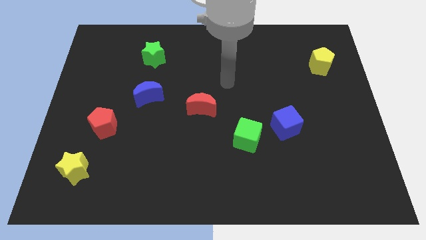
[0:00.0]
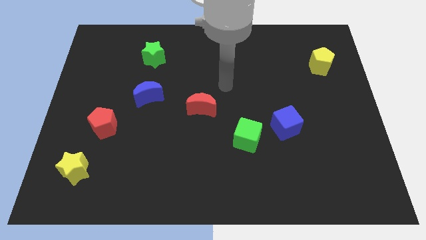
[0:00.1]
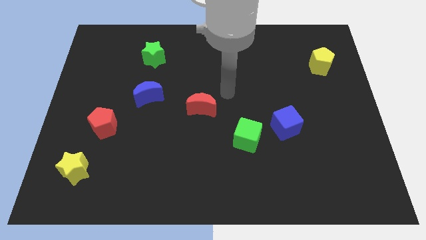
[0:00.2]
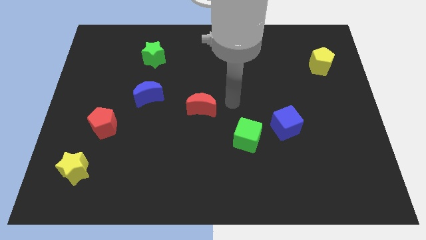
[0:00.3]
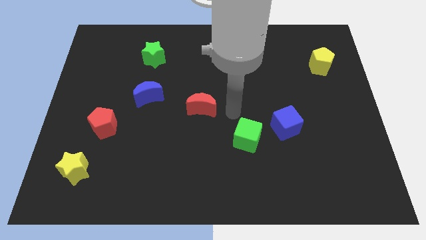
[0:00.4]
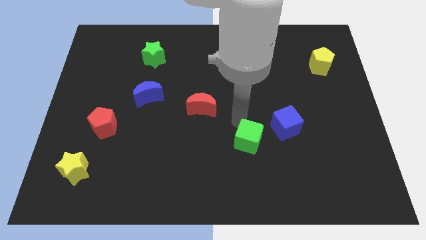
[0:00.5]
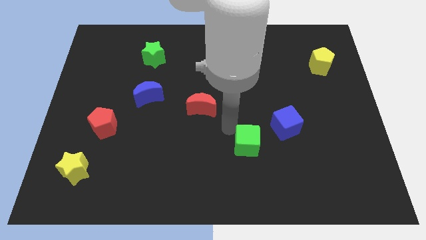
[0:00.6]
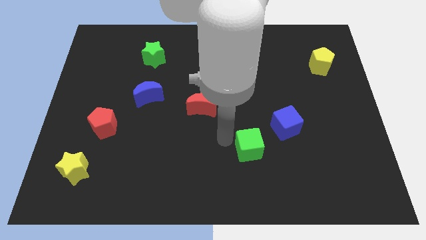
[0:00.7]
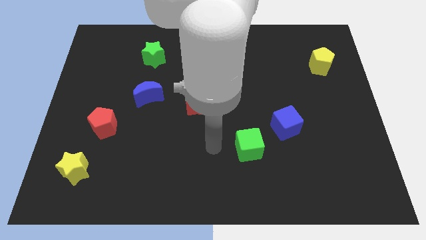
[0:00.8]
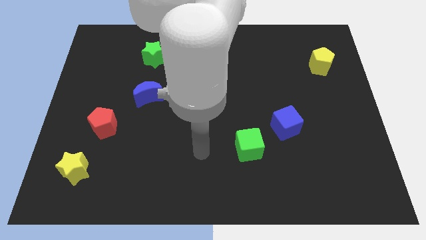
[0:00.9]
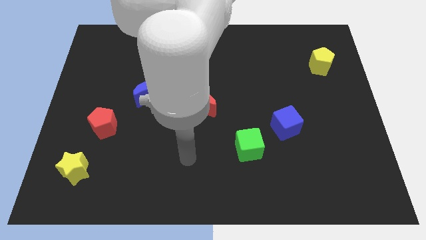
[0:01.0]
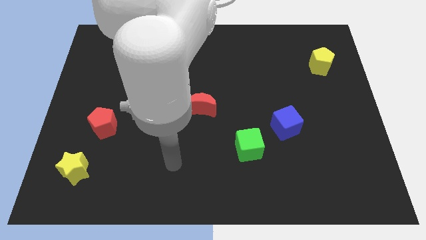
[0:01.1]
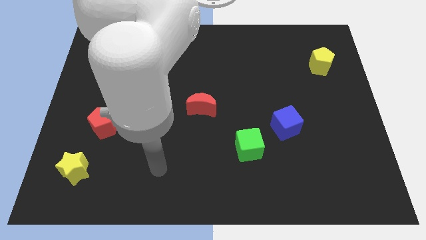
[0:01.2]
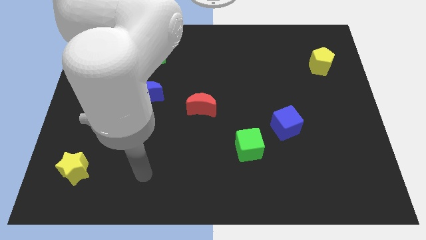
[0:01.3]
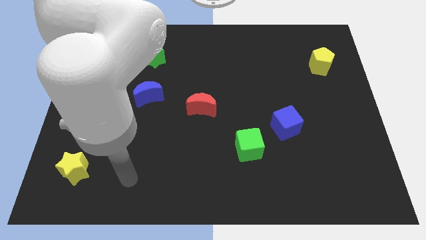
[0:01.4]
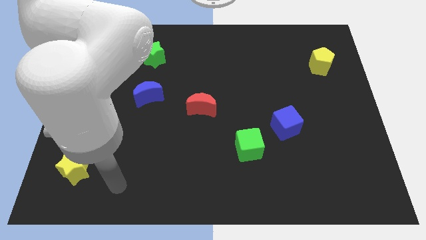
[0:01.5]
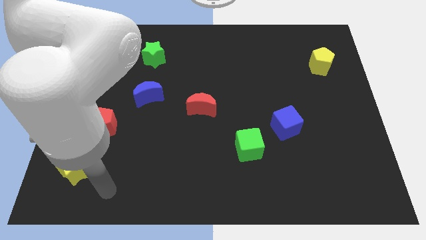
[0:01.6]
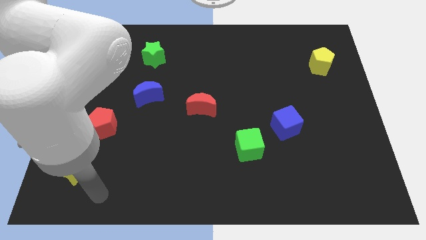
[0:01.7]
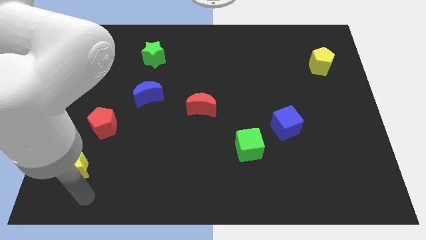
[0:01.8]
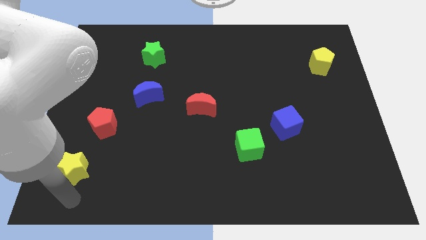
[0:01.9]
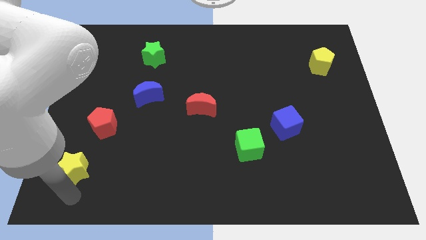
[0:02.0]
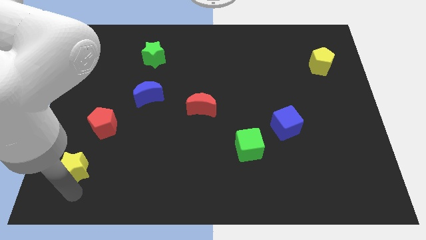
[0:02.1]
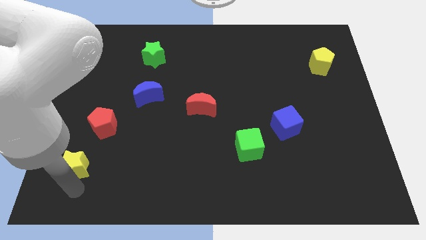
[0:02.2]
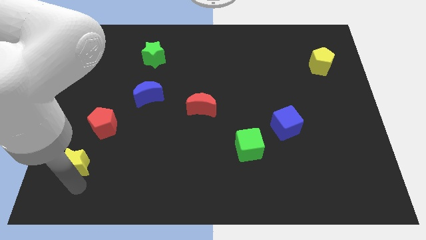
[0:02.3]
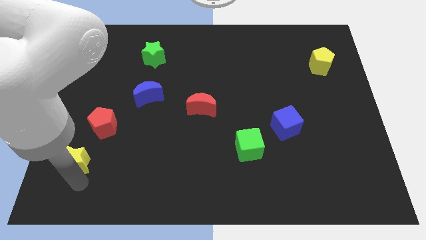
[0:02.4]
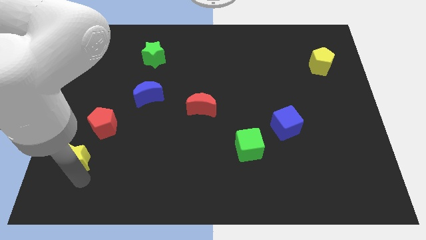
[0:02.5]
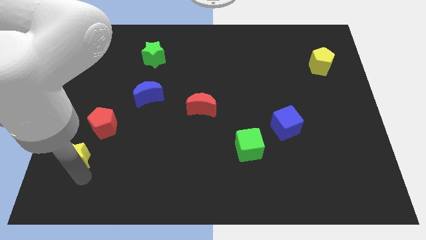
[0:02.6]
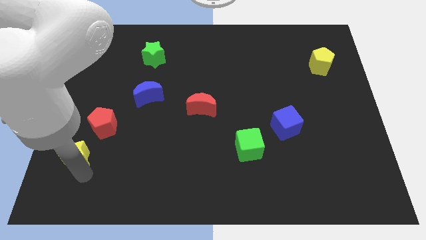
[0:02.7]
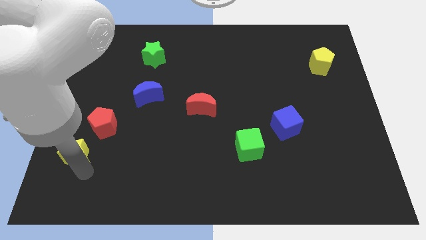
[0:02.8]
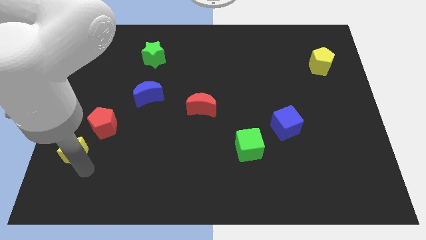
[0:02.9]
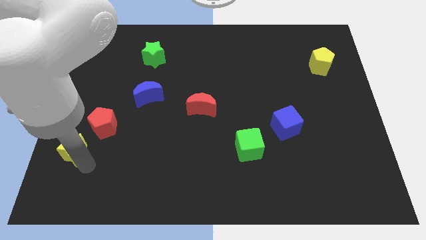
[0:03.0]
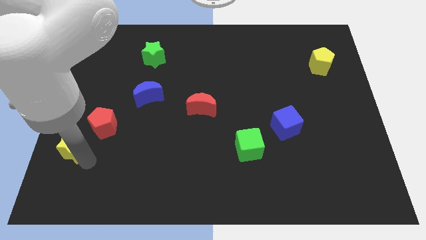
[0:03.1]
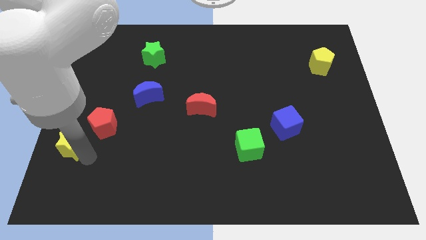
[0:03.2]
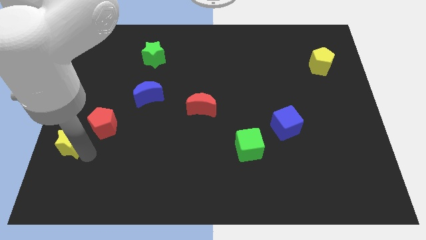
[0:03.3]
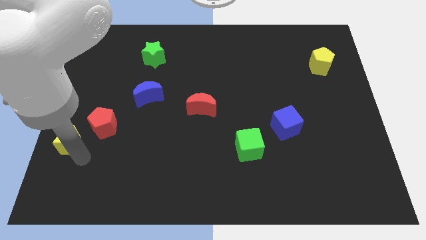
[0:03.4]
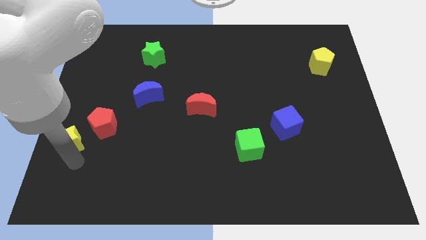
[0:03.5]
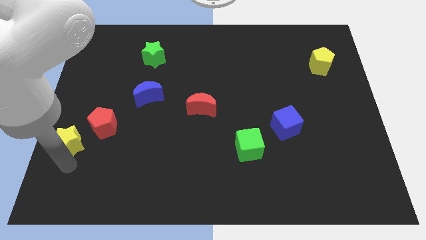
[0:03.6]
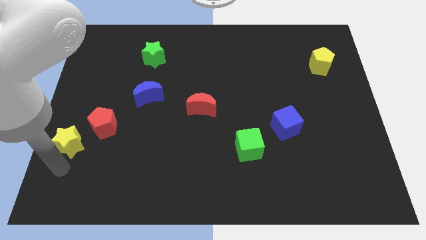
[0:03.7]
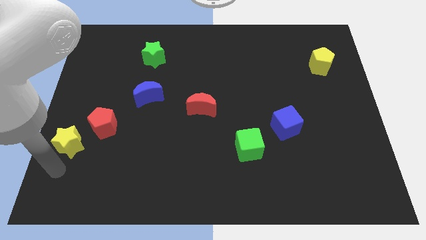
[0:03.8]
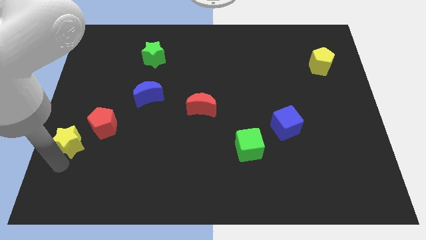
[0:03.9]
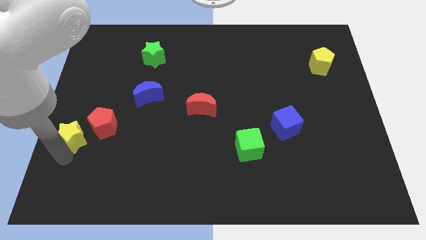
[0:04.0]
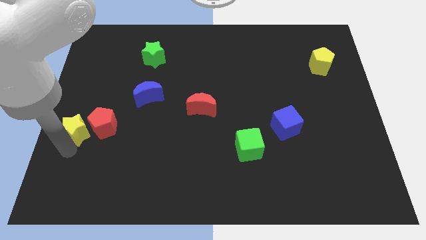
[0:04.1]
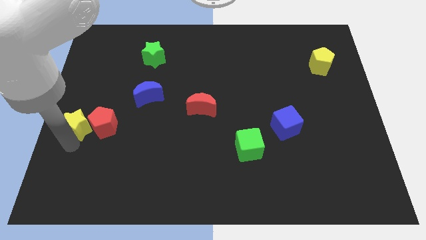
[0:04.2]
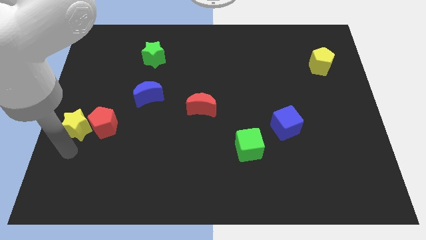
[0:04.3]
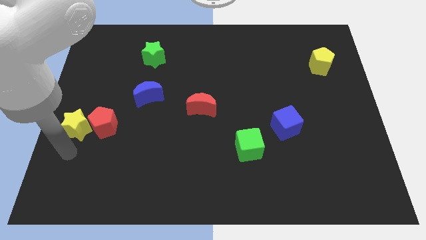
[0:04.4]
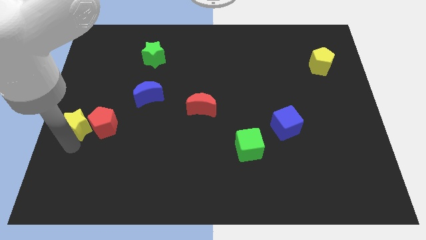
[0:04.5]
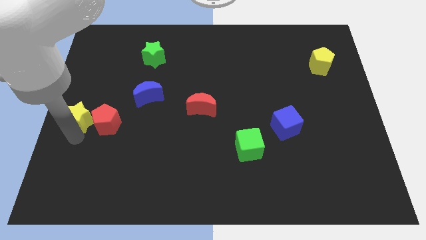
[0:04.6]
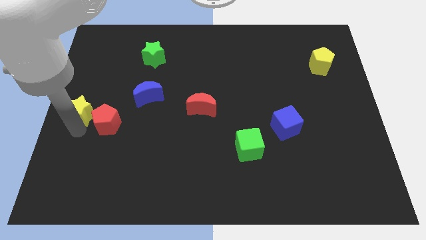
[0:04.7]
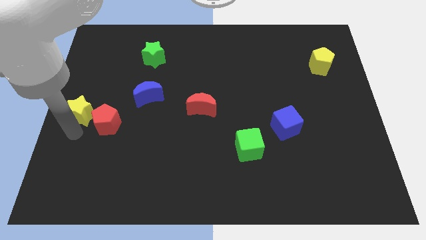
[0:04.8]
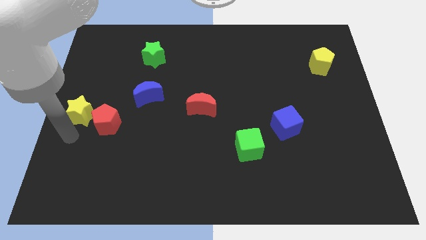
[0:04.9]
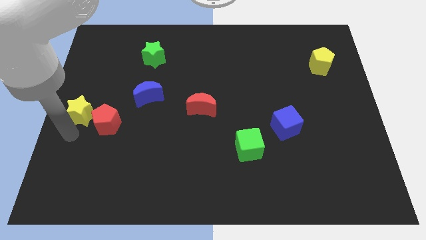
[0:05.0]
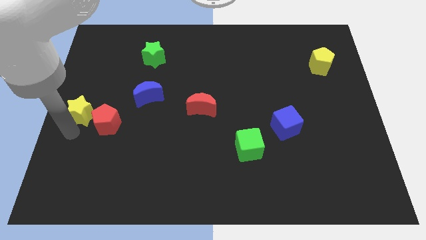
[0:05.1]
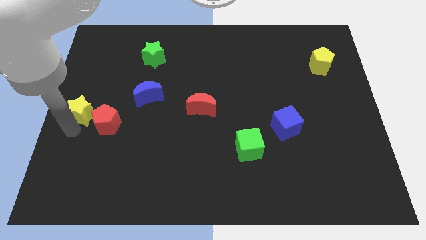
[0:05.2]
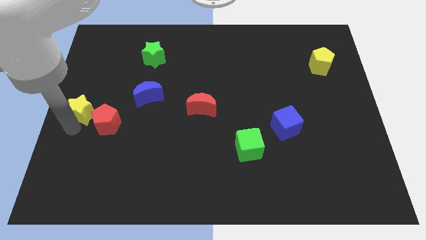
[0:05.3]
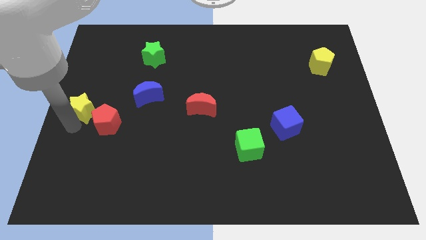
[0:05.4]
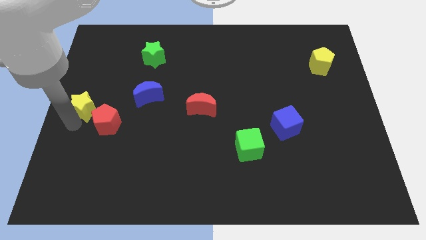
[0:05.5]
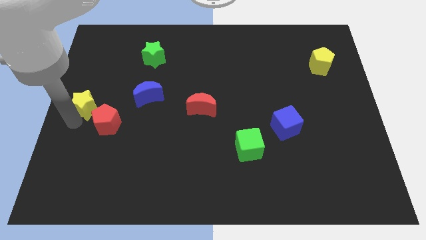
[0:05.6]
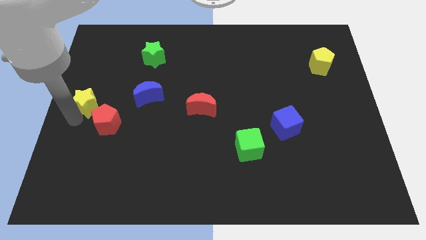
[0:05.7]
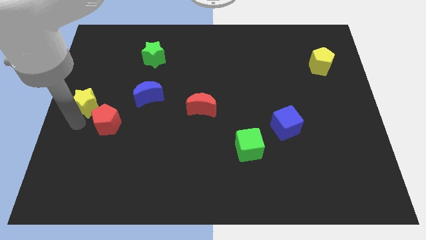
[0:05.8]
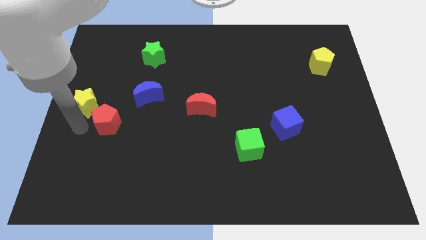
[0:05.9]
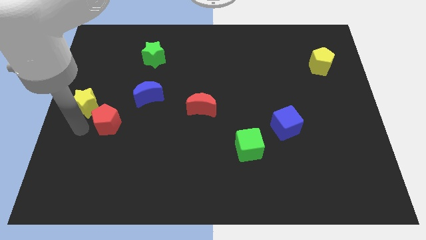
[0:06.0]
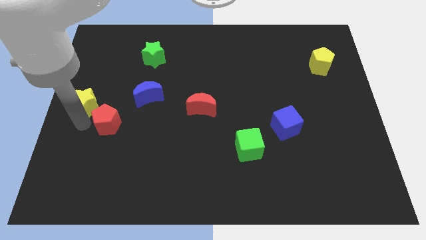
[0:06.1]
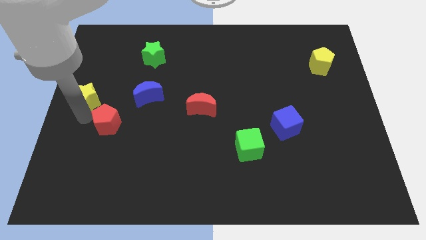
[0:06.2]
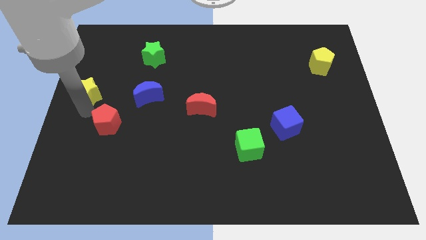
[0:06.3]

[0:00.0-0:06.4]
push the yellow star upwards

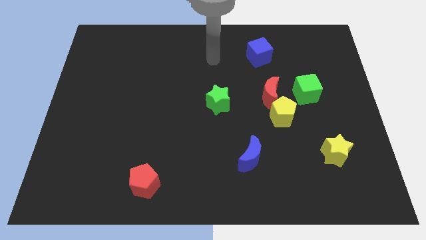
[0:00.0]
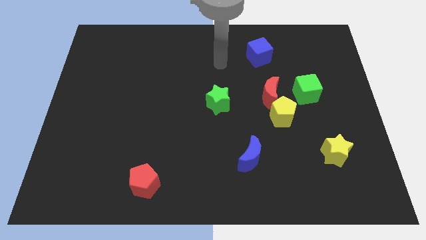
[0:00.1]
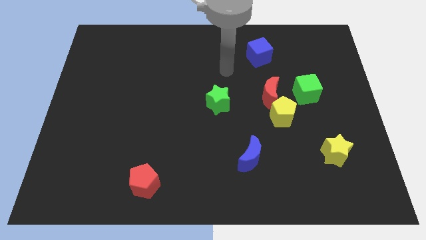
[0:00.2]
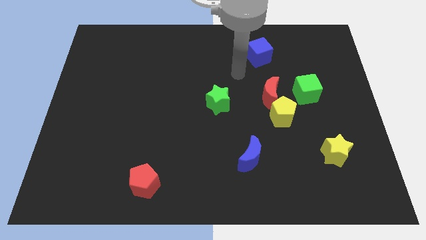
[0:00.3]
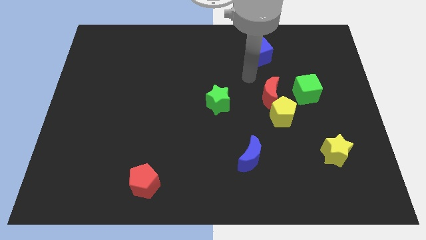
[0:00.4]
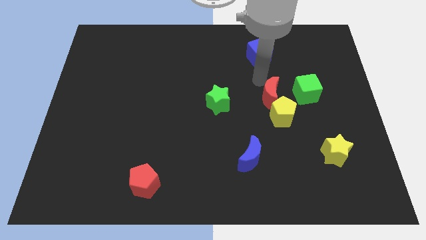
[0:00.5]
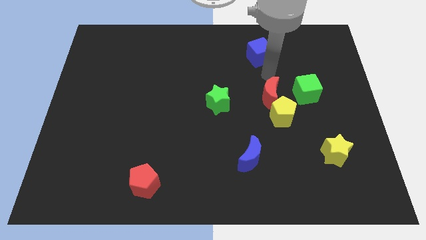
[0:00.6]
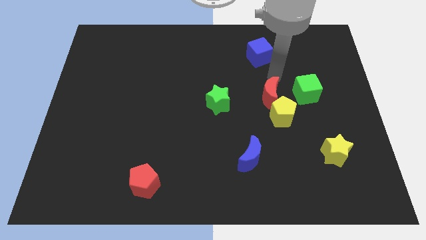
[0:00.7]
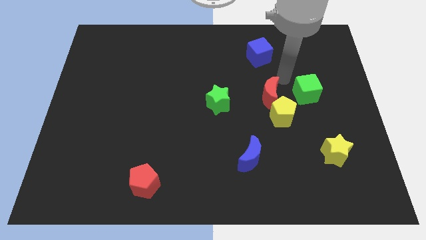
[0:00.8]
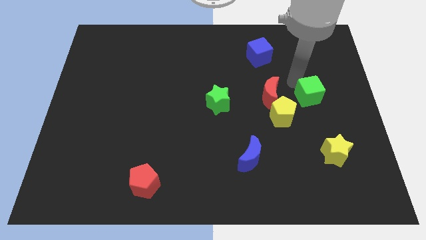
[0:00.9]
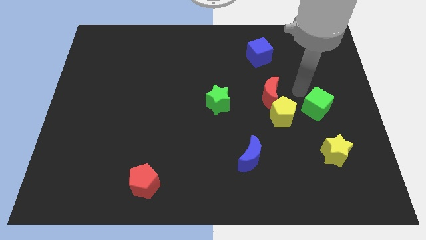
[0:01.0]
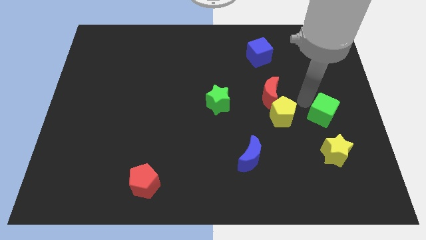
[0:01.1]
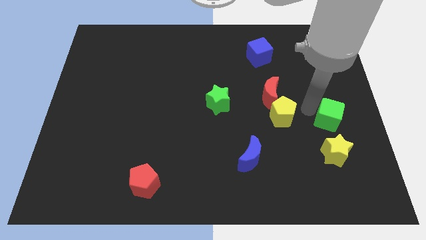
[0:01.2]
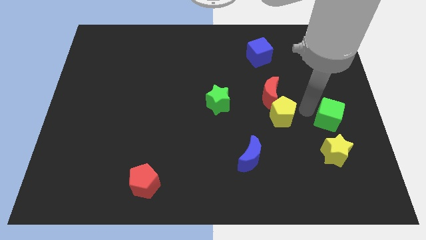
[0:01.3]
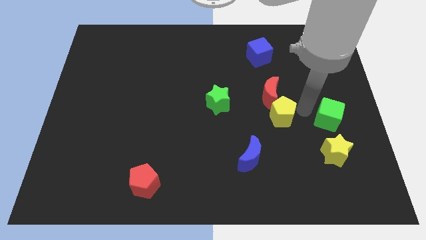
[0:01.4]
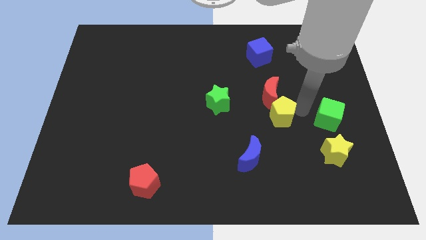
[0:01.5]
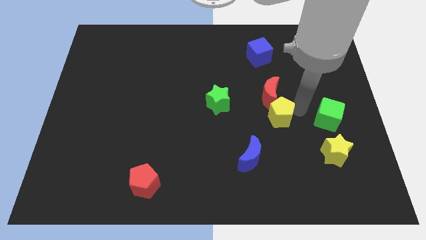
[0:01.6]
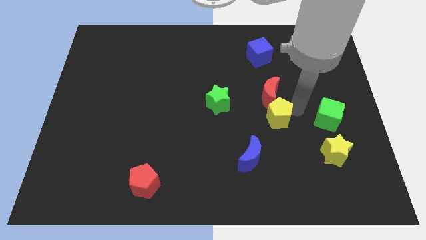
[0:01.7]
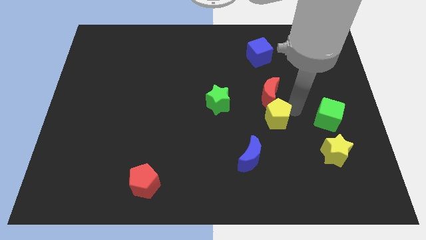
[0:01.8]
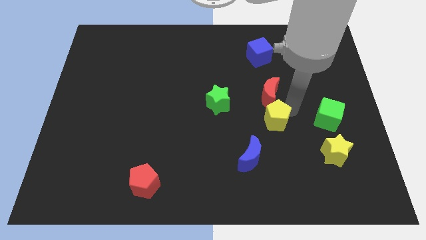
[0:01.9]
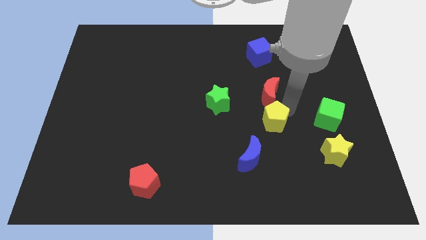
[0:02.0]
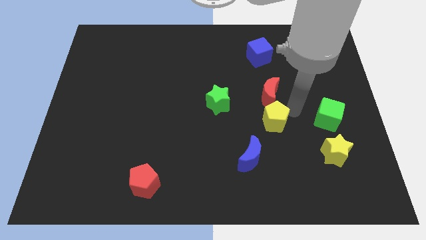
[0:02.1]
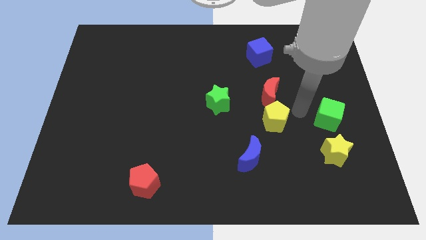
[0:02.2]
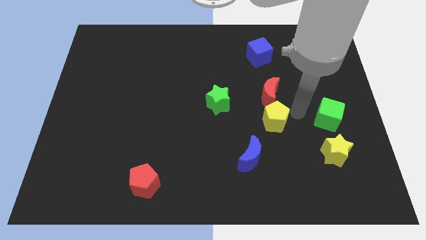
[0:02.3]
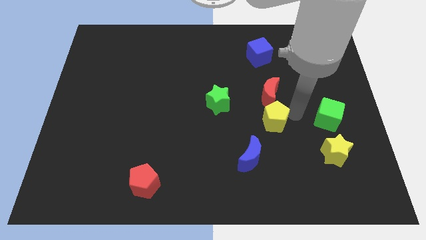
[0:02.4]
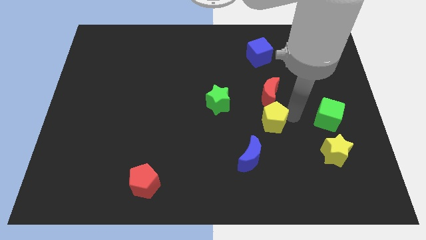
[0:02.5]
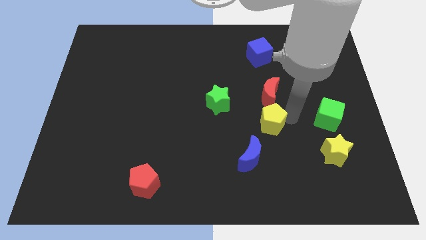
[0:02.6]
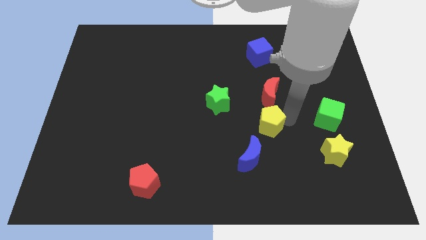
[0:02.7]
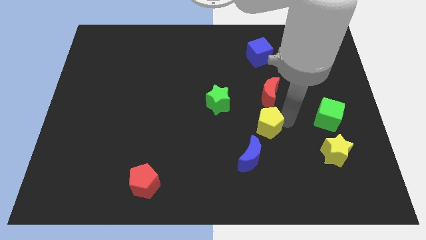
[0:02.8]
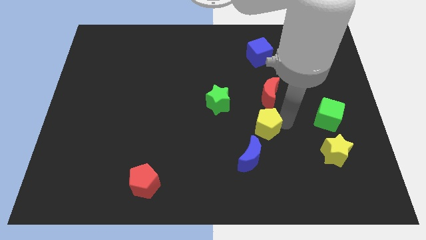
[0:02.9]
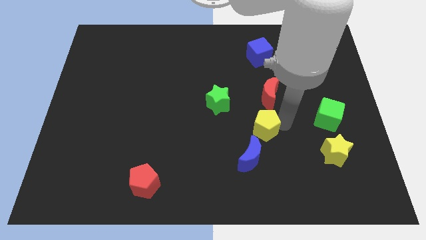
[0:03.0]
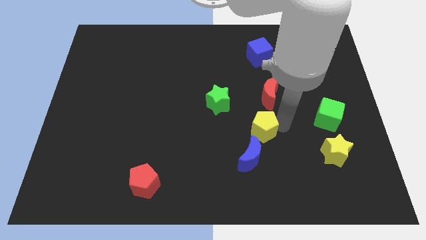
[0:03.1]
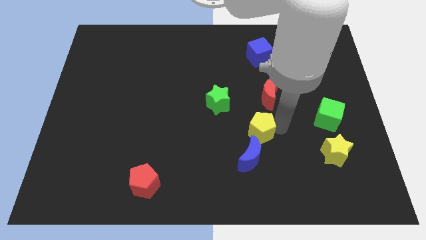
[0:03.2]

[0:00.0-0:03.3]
move the yellow pentagon somewhat down and to the left
